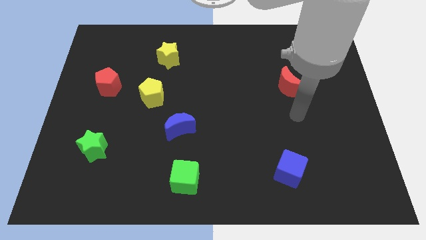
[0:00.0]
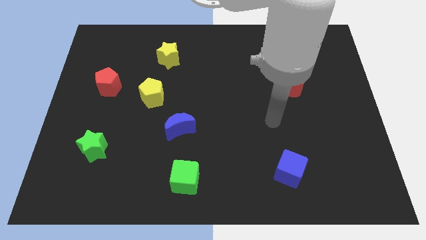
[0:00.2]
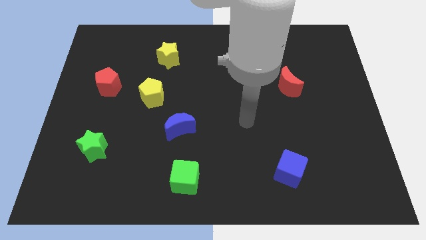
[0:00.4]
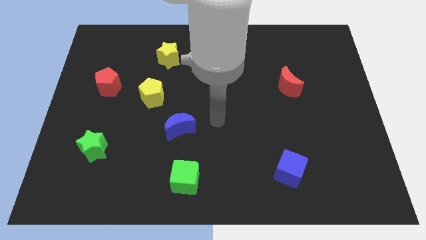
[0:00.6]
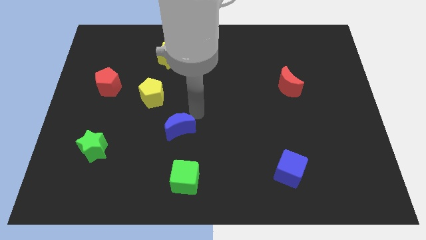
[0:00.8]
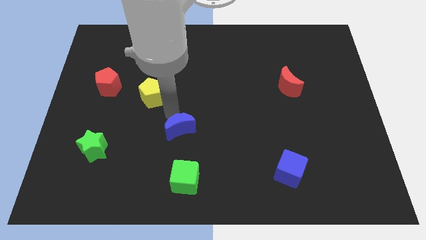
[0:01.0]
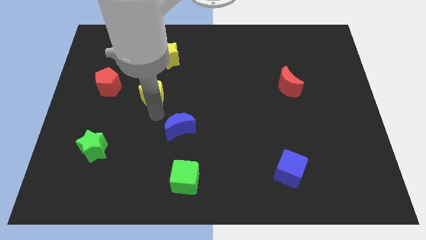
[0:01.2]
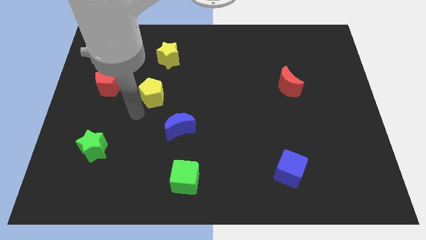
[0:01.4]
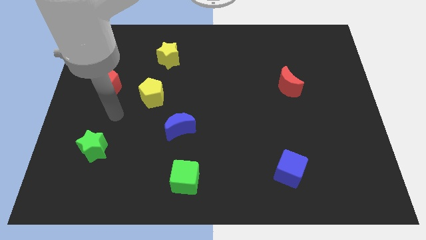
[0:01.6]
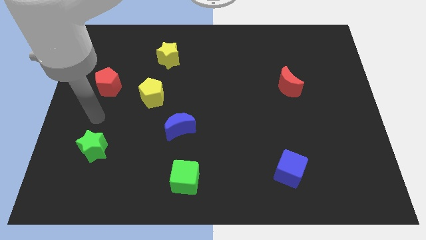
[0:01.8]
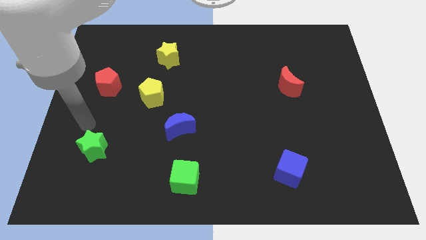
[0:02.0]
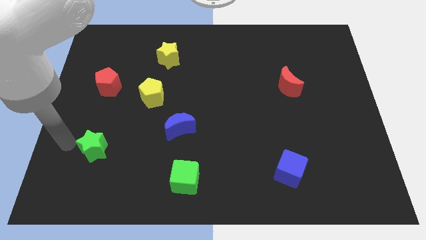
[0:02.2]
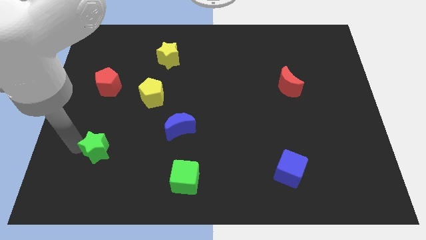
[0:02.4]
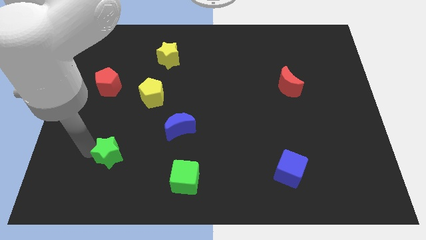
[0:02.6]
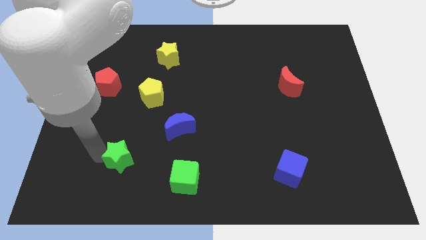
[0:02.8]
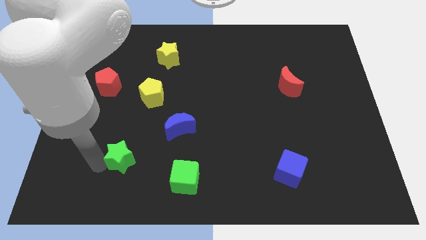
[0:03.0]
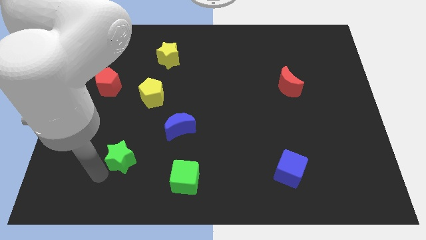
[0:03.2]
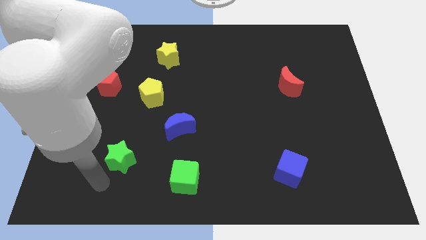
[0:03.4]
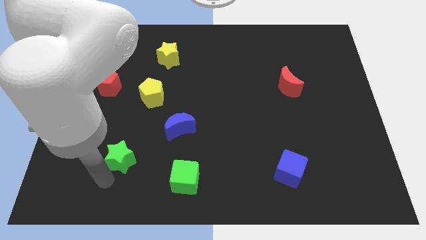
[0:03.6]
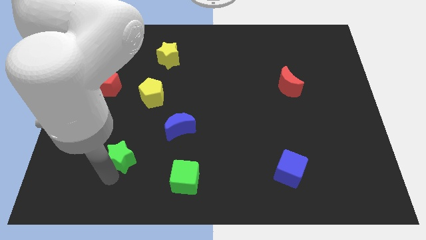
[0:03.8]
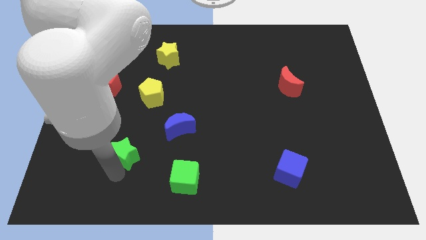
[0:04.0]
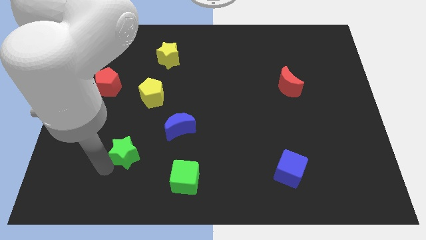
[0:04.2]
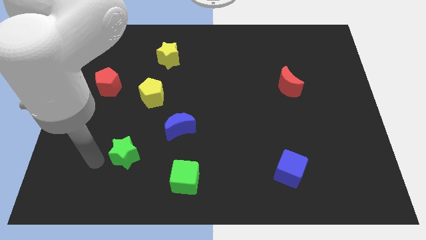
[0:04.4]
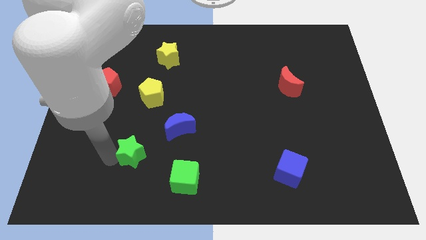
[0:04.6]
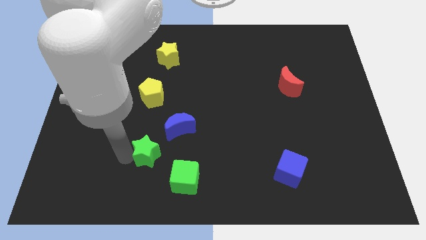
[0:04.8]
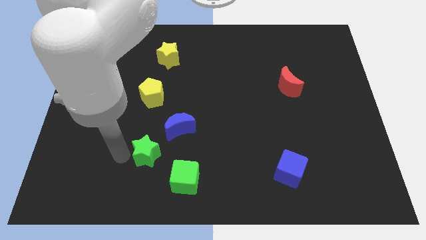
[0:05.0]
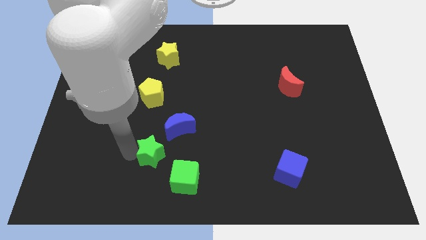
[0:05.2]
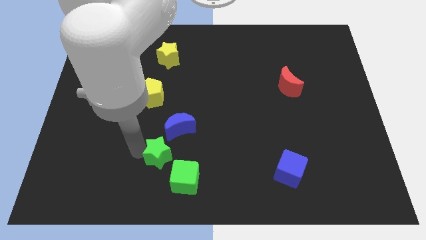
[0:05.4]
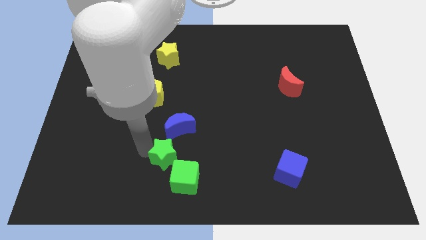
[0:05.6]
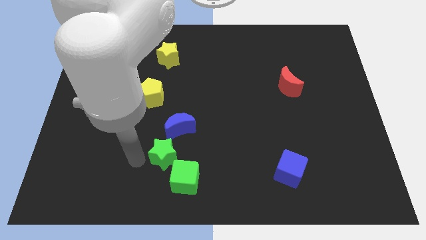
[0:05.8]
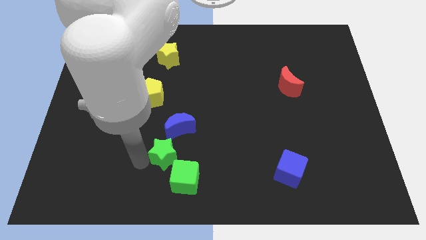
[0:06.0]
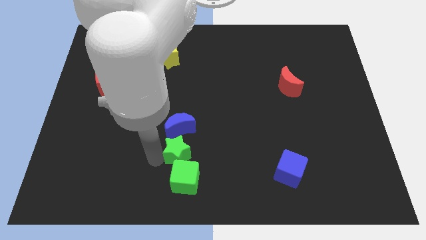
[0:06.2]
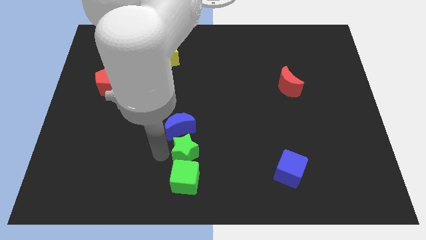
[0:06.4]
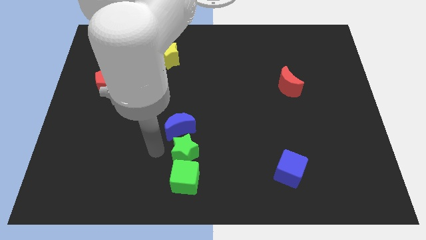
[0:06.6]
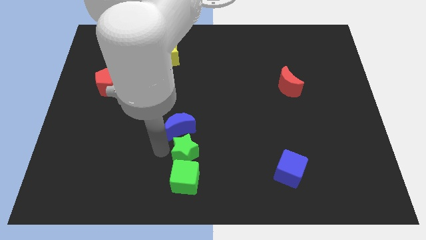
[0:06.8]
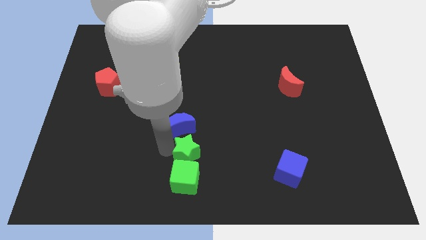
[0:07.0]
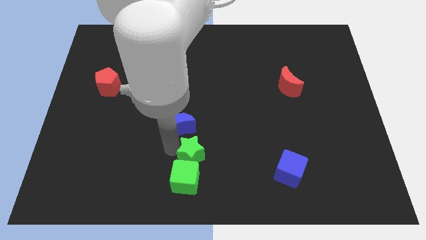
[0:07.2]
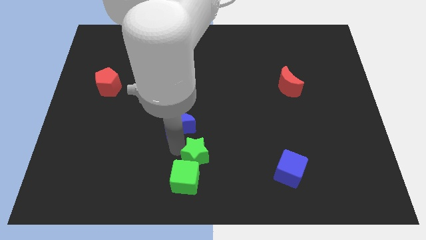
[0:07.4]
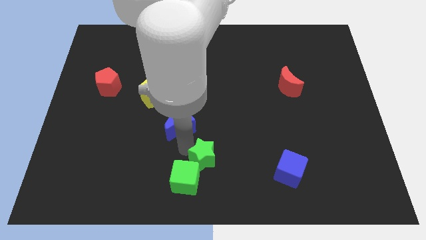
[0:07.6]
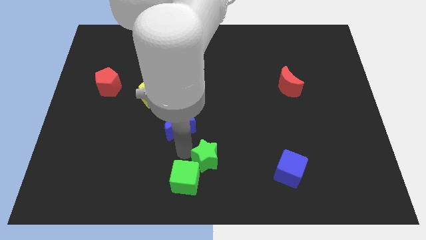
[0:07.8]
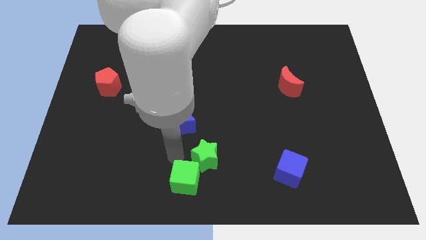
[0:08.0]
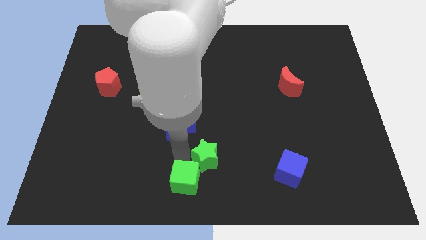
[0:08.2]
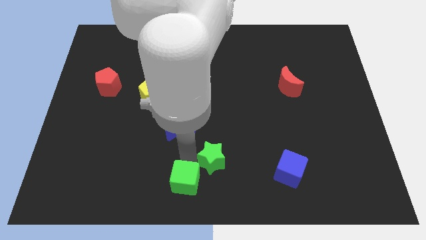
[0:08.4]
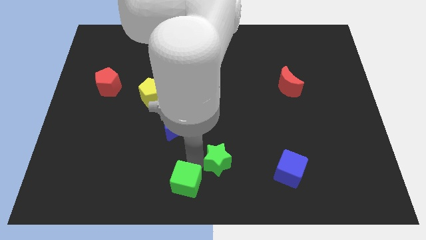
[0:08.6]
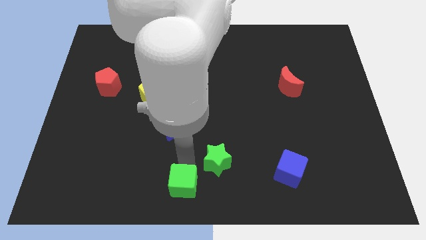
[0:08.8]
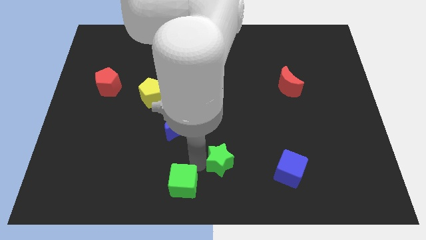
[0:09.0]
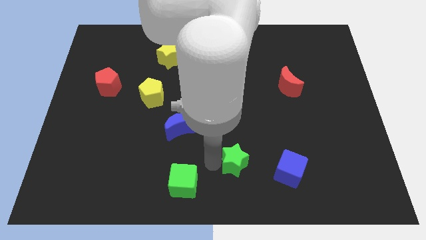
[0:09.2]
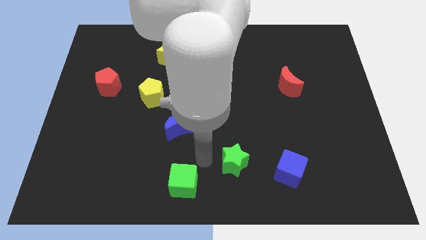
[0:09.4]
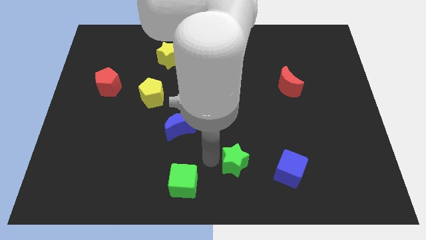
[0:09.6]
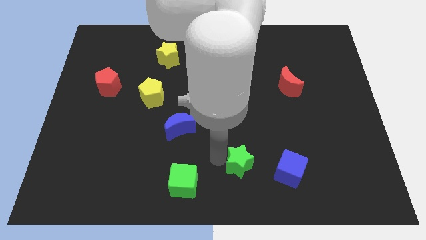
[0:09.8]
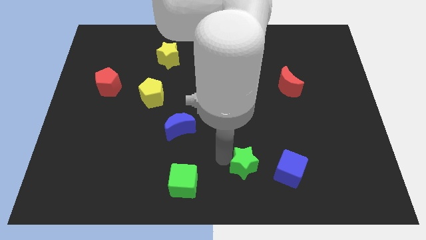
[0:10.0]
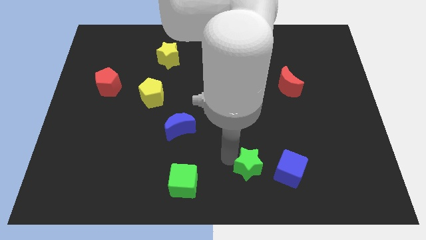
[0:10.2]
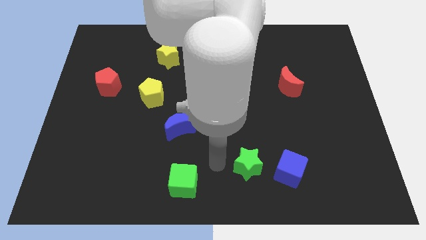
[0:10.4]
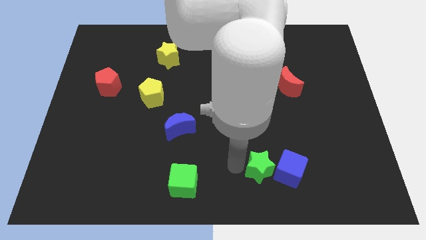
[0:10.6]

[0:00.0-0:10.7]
push the green star close to the blue cube

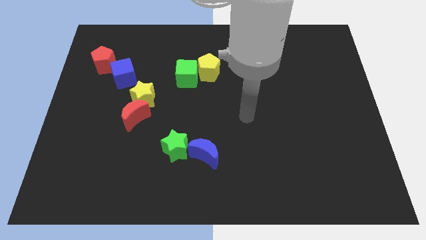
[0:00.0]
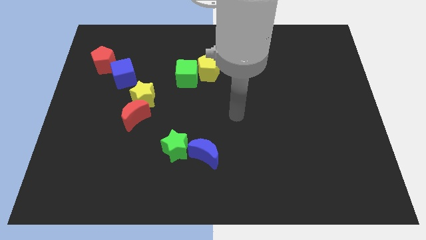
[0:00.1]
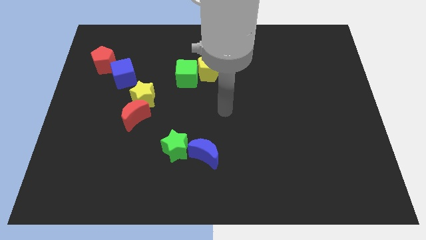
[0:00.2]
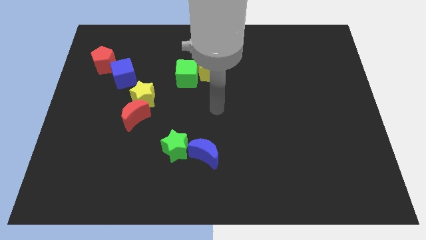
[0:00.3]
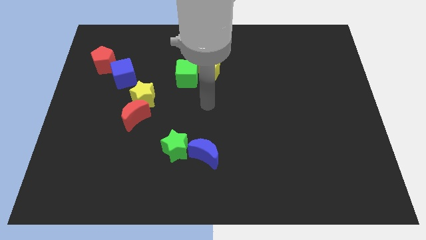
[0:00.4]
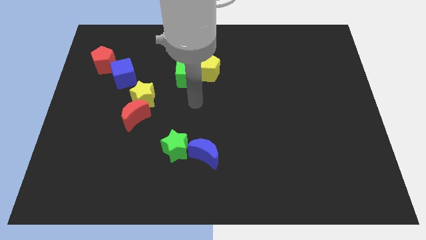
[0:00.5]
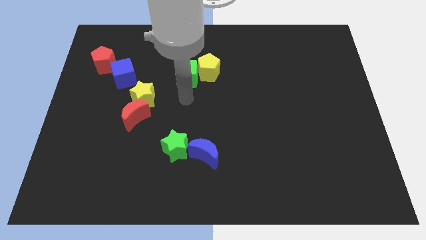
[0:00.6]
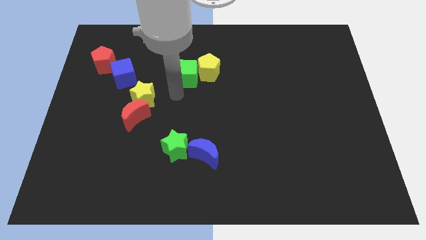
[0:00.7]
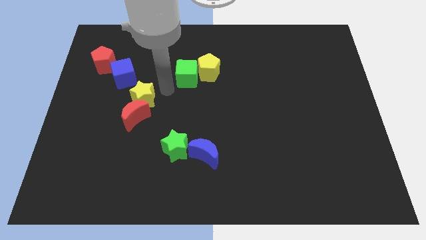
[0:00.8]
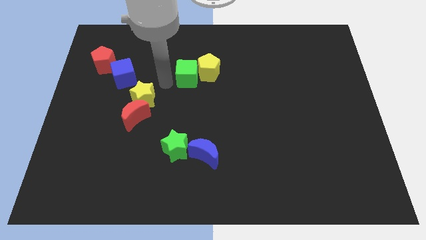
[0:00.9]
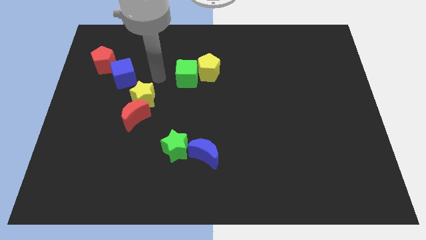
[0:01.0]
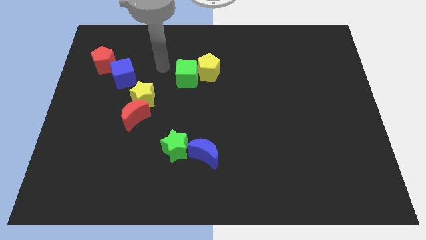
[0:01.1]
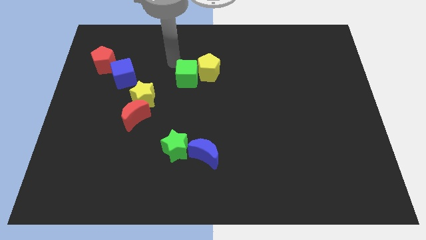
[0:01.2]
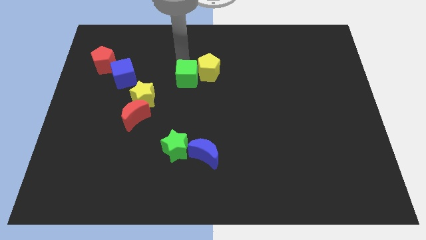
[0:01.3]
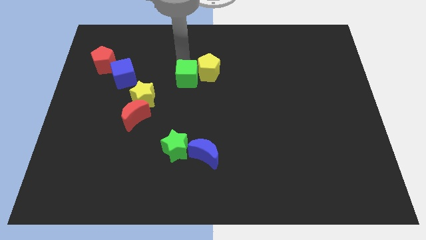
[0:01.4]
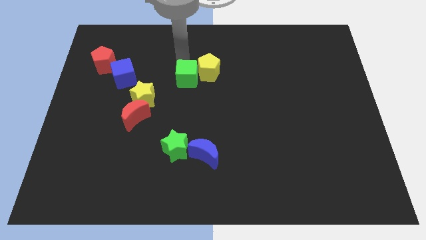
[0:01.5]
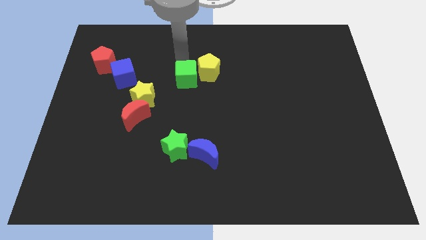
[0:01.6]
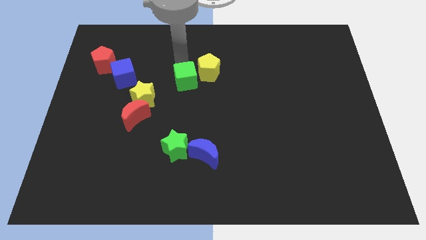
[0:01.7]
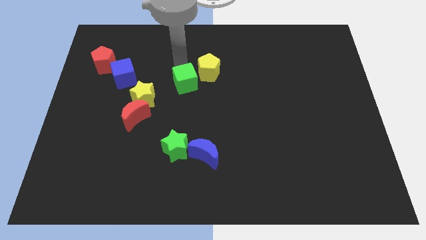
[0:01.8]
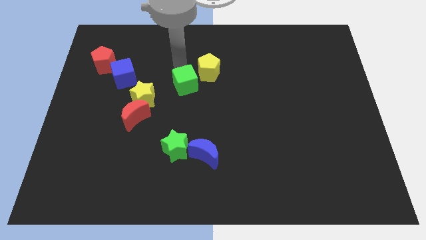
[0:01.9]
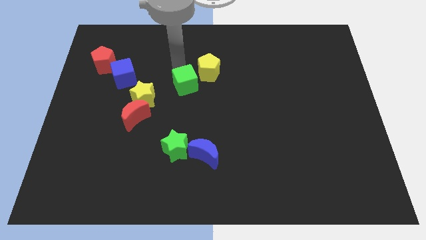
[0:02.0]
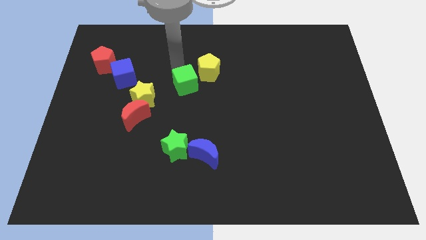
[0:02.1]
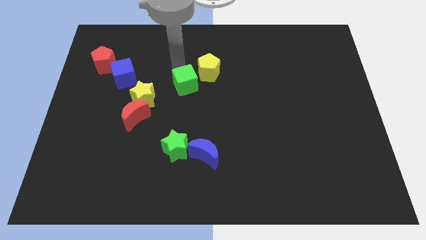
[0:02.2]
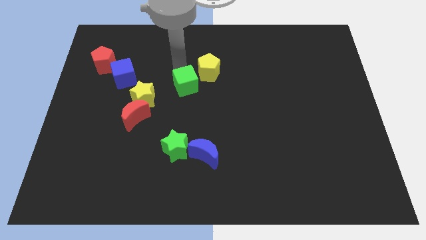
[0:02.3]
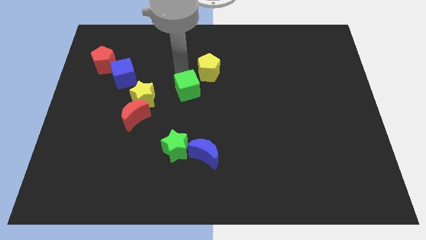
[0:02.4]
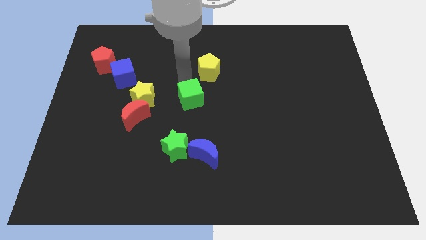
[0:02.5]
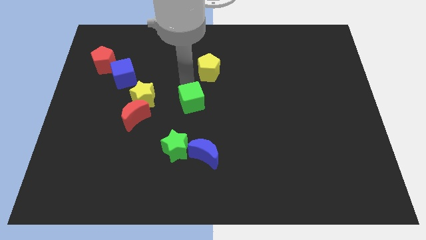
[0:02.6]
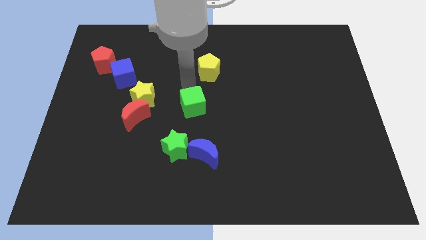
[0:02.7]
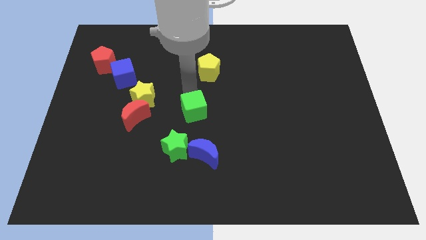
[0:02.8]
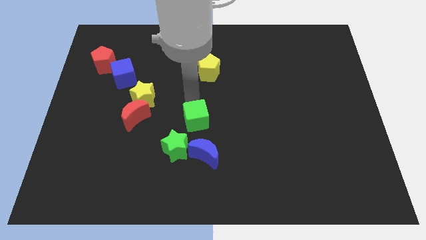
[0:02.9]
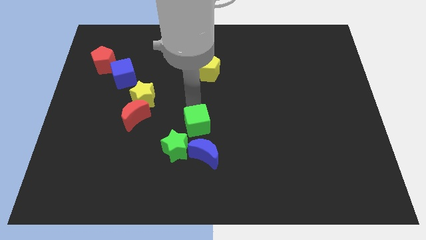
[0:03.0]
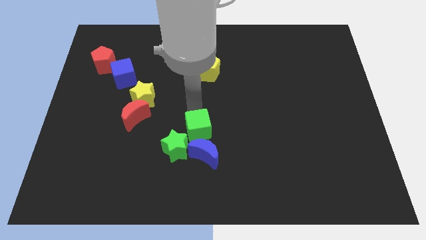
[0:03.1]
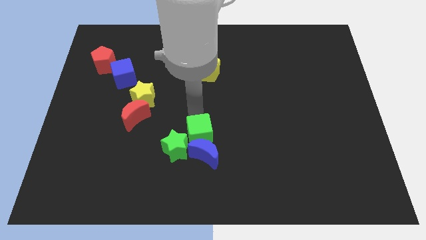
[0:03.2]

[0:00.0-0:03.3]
slide the green cube towards the blue moon
